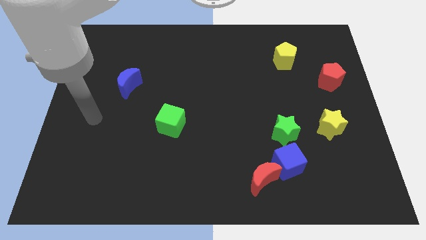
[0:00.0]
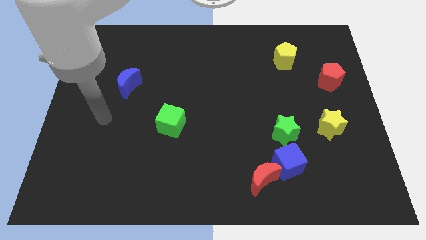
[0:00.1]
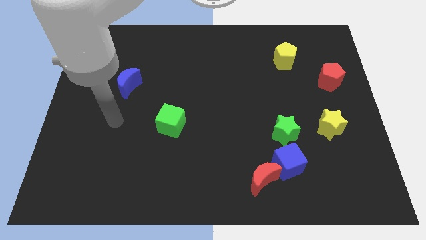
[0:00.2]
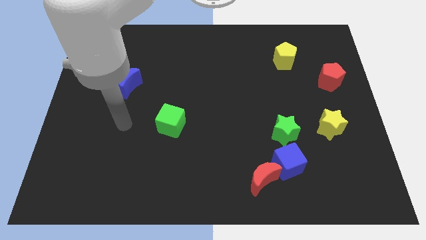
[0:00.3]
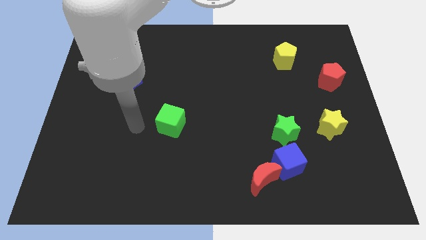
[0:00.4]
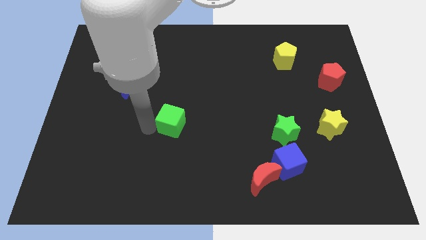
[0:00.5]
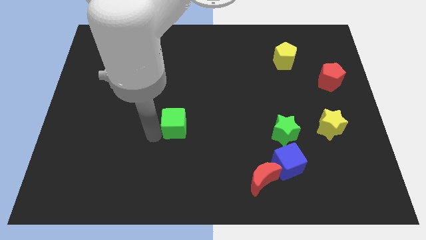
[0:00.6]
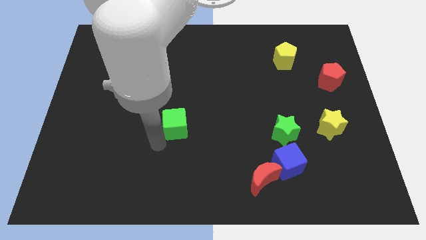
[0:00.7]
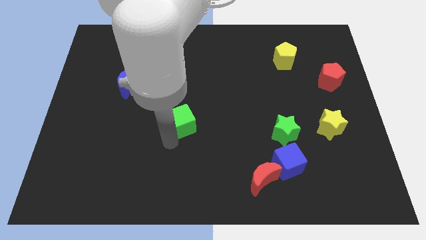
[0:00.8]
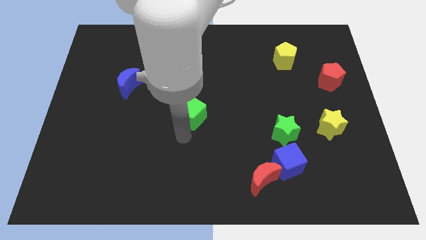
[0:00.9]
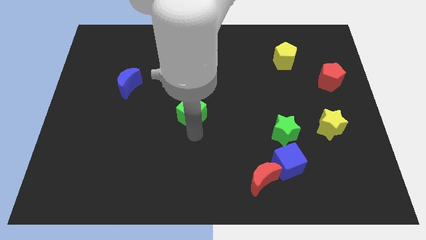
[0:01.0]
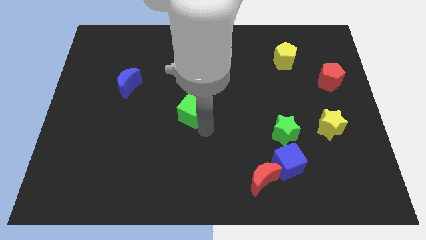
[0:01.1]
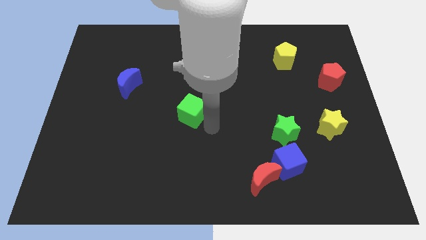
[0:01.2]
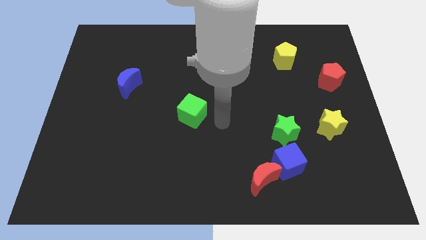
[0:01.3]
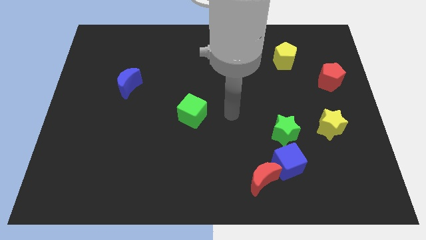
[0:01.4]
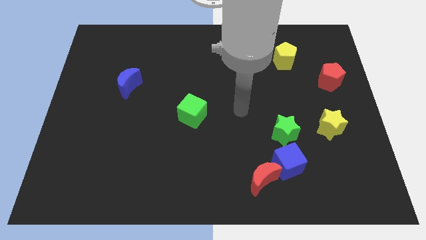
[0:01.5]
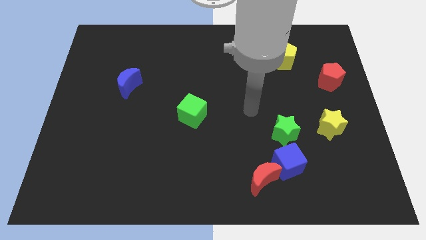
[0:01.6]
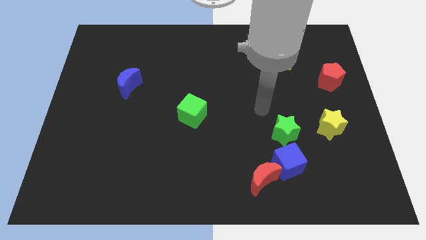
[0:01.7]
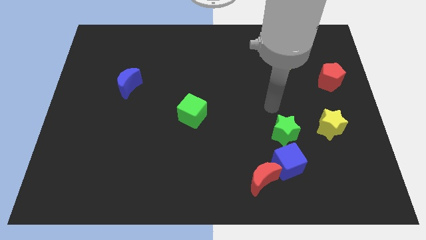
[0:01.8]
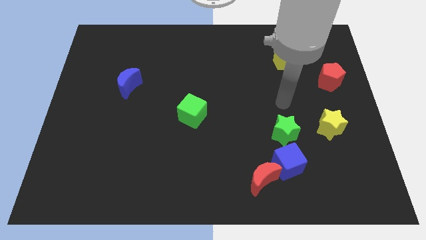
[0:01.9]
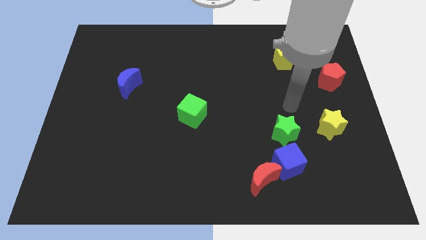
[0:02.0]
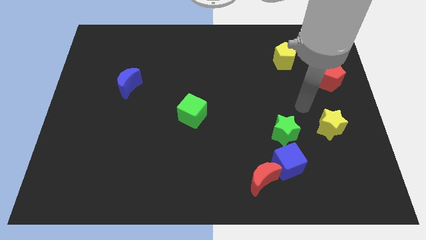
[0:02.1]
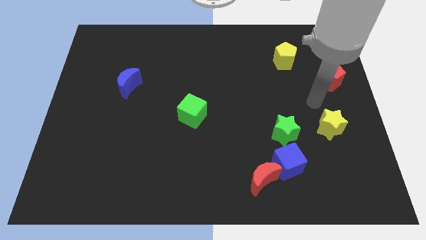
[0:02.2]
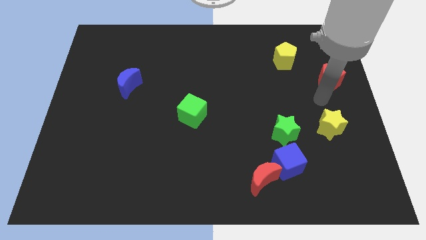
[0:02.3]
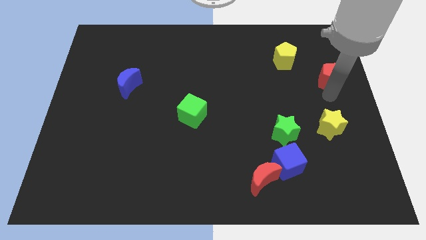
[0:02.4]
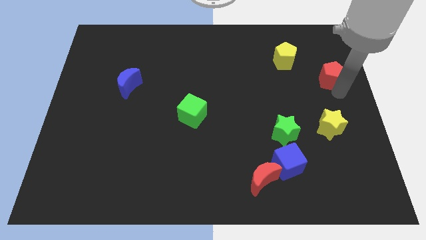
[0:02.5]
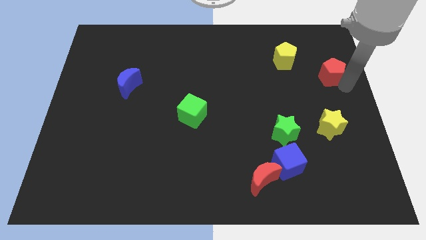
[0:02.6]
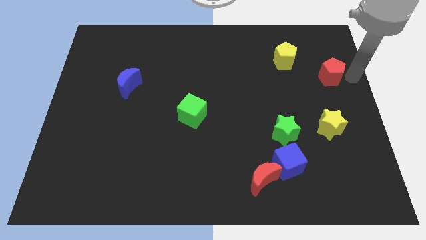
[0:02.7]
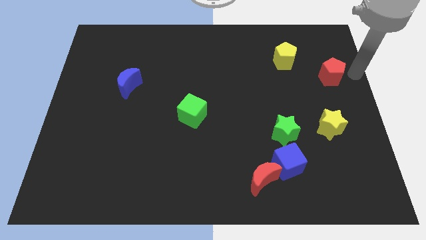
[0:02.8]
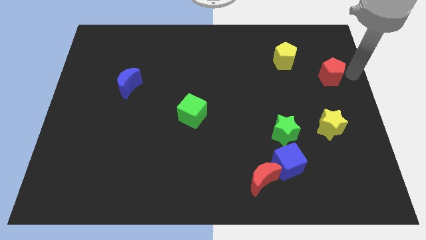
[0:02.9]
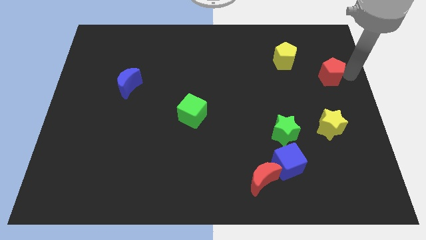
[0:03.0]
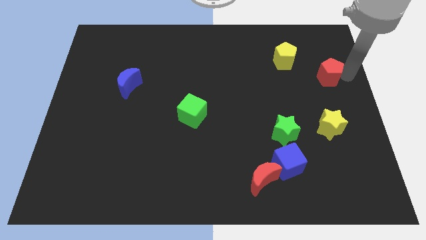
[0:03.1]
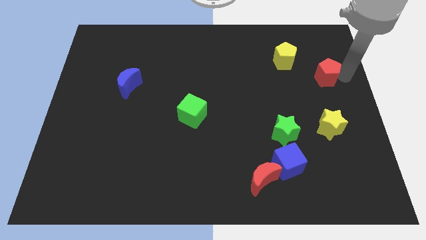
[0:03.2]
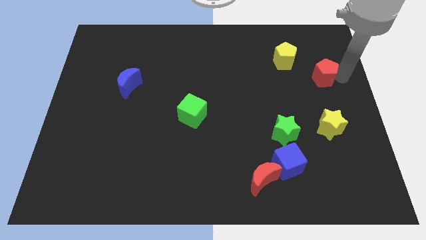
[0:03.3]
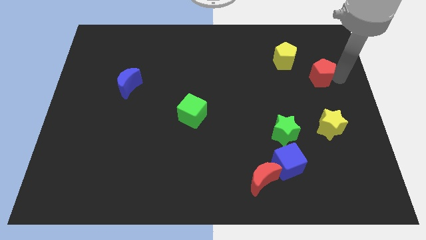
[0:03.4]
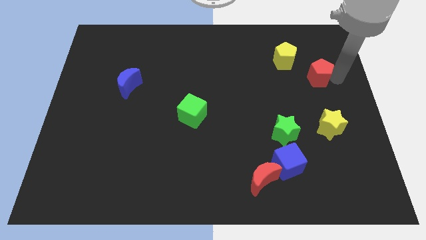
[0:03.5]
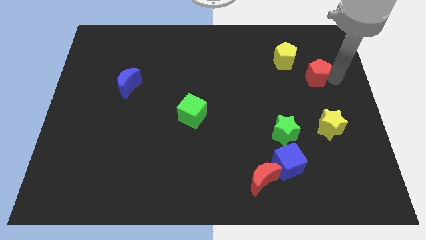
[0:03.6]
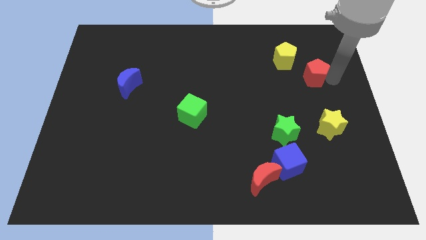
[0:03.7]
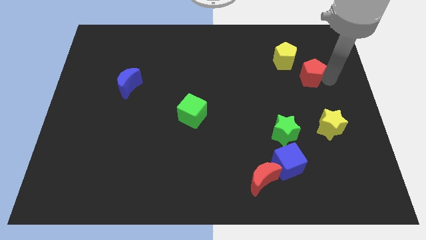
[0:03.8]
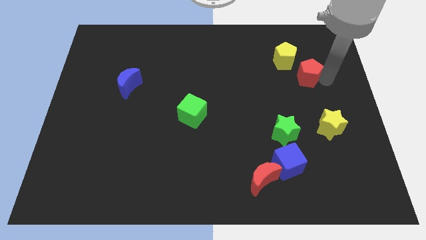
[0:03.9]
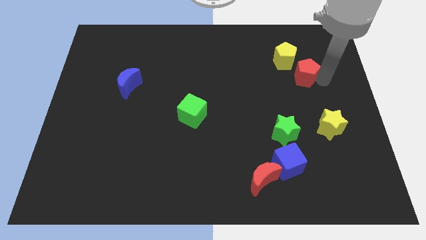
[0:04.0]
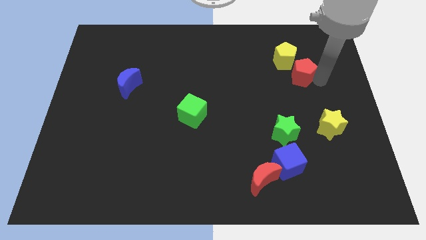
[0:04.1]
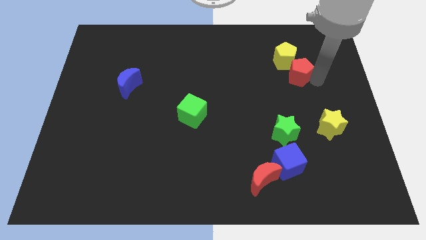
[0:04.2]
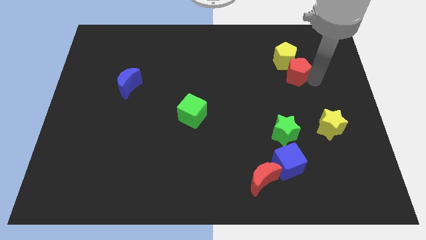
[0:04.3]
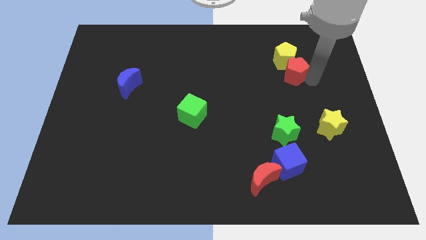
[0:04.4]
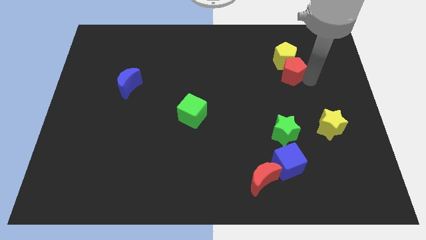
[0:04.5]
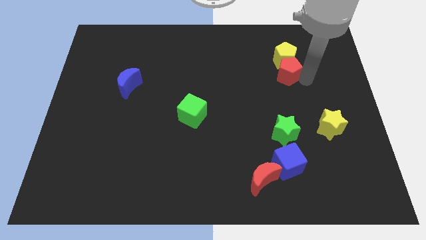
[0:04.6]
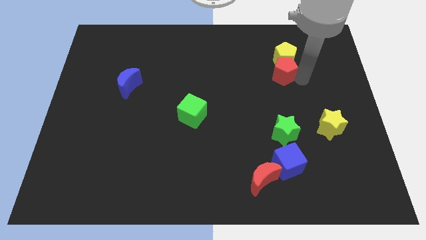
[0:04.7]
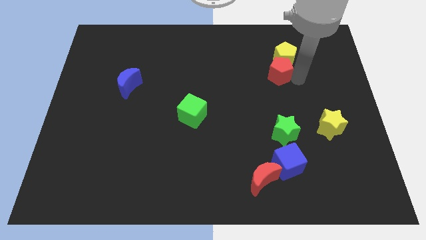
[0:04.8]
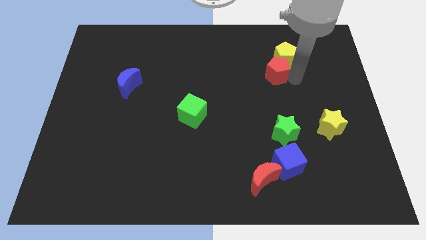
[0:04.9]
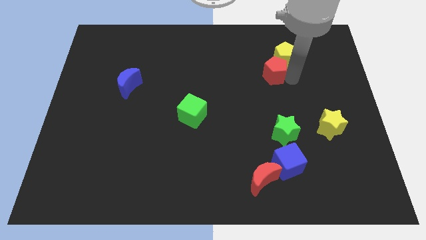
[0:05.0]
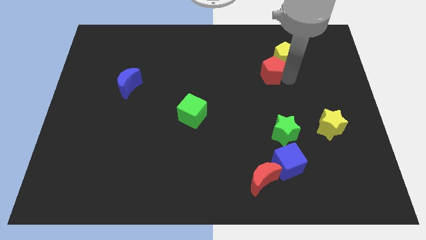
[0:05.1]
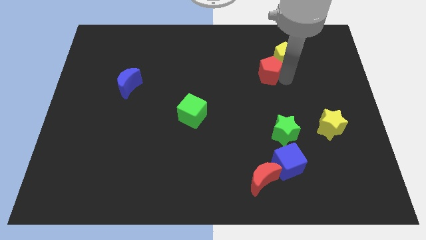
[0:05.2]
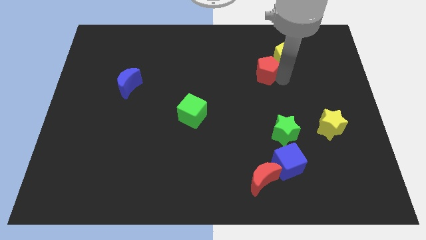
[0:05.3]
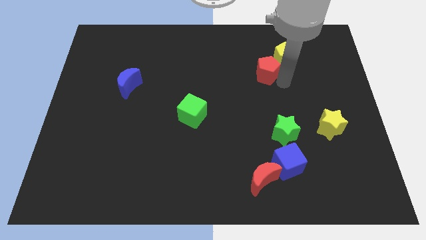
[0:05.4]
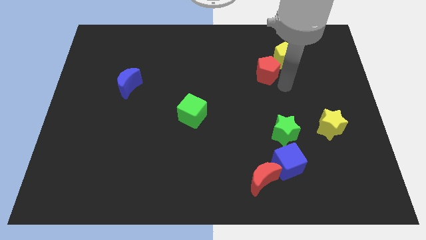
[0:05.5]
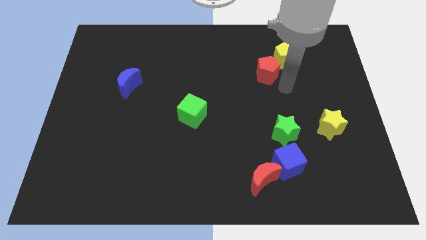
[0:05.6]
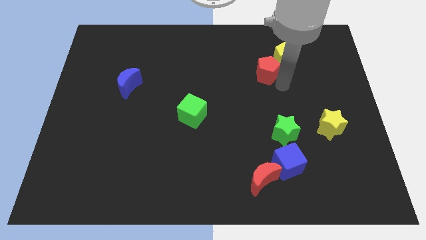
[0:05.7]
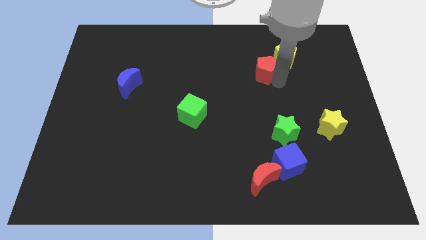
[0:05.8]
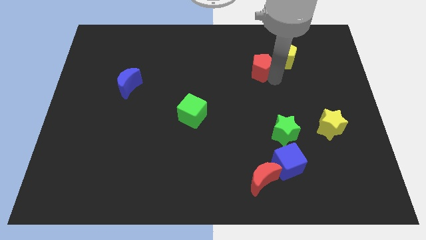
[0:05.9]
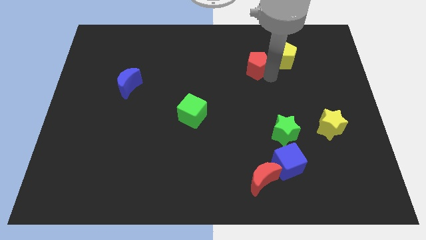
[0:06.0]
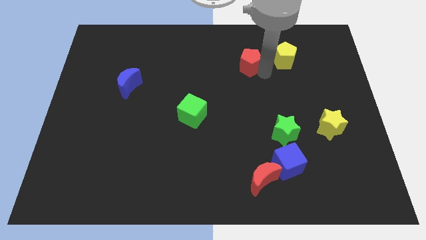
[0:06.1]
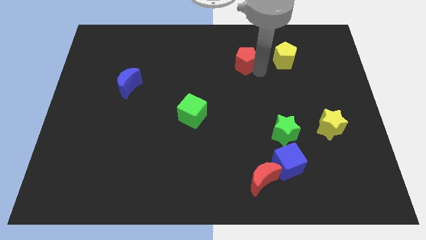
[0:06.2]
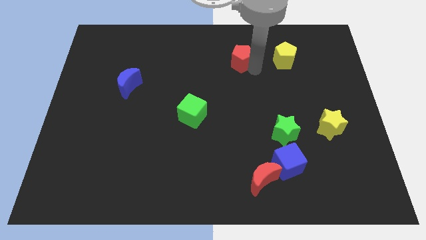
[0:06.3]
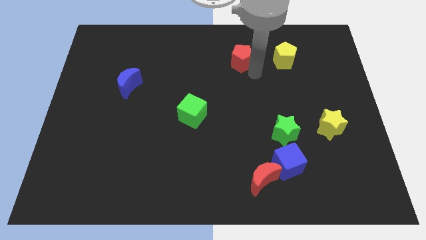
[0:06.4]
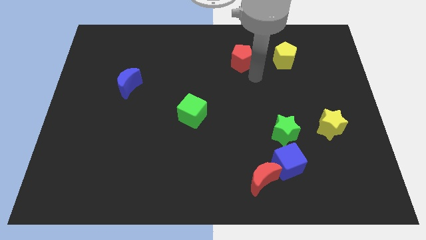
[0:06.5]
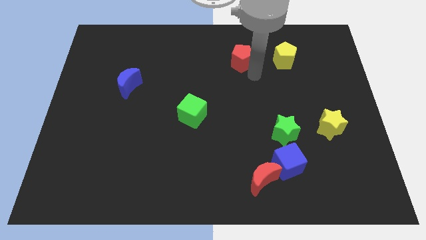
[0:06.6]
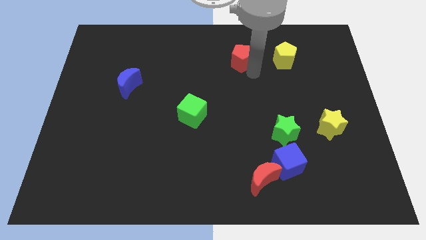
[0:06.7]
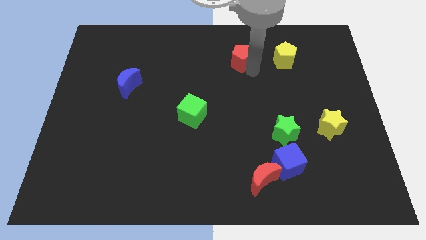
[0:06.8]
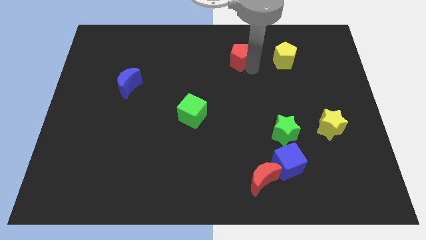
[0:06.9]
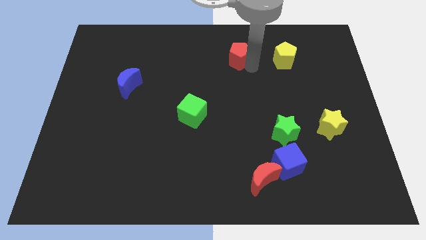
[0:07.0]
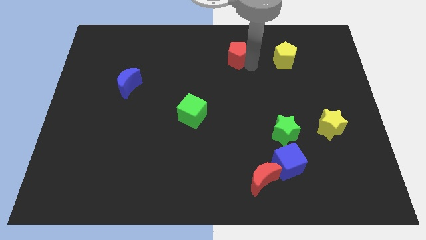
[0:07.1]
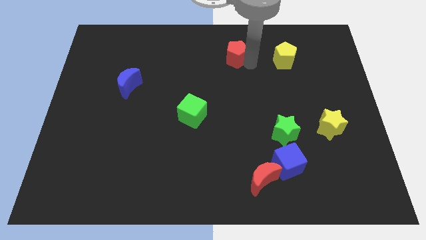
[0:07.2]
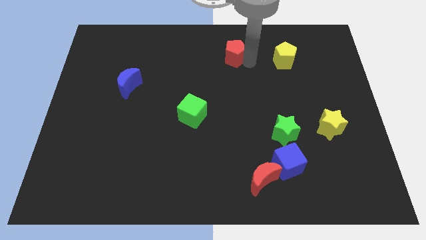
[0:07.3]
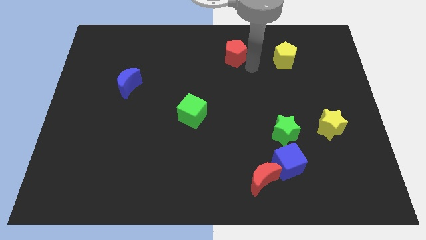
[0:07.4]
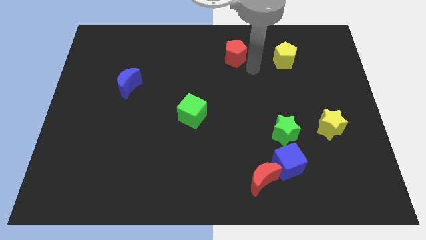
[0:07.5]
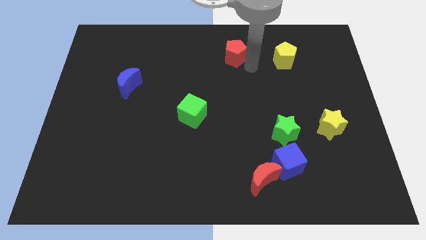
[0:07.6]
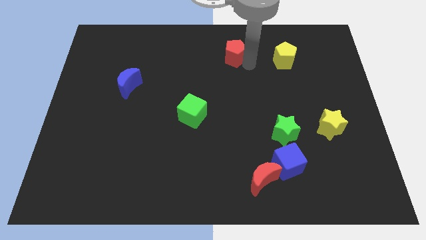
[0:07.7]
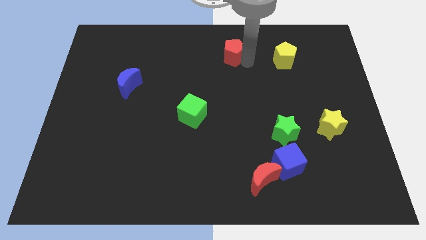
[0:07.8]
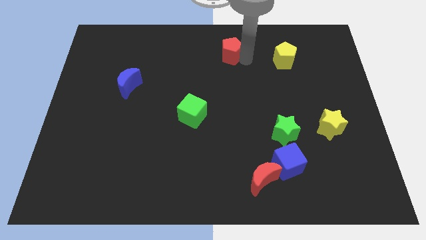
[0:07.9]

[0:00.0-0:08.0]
move the red pentagon to the top side
